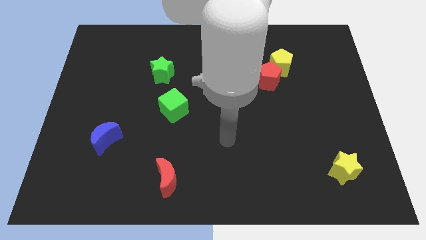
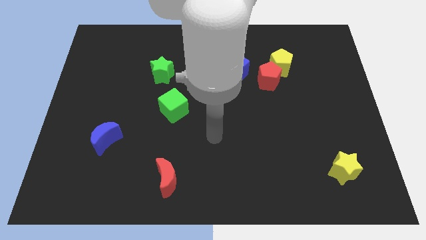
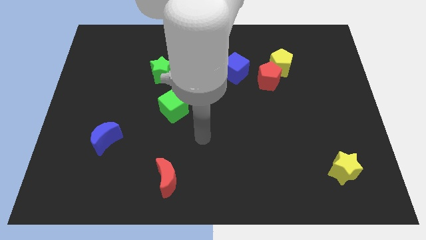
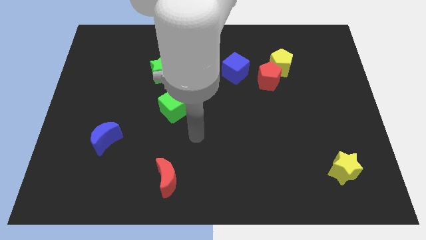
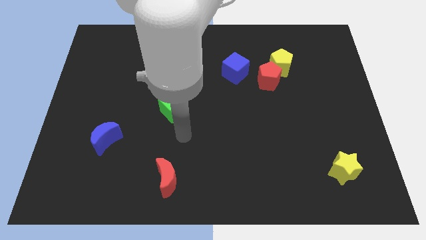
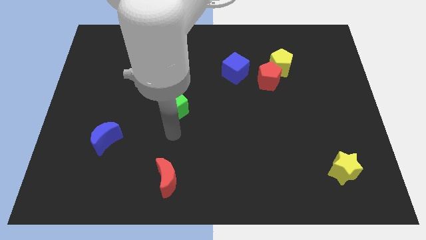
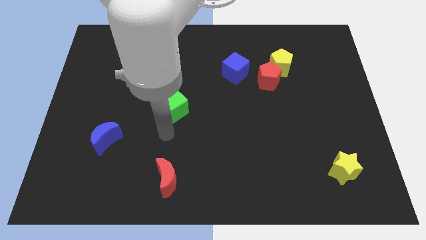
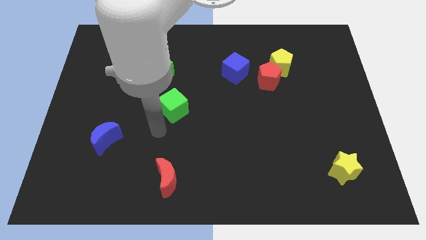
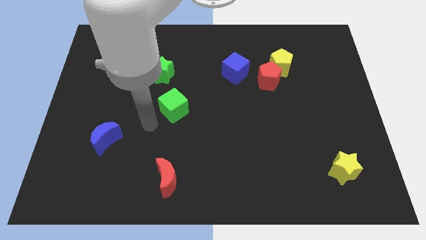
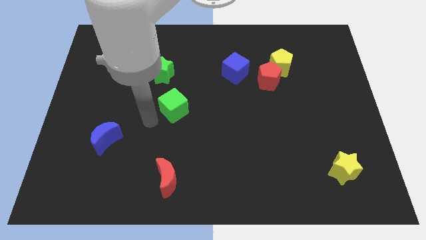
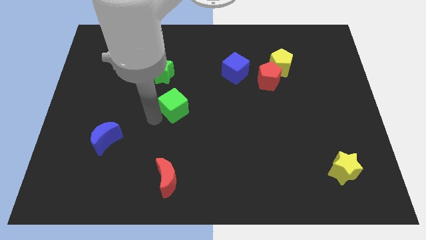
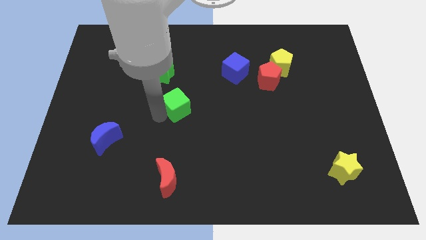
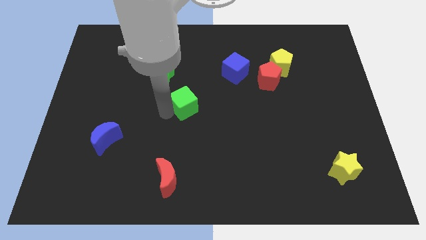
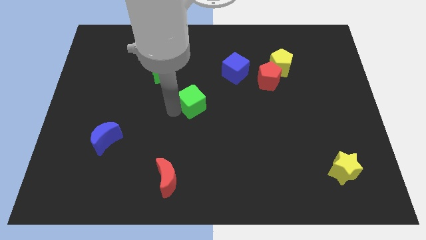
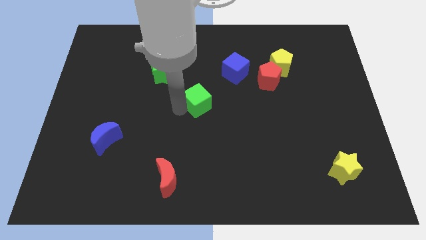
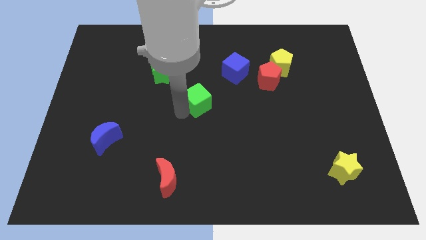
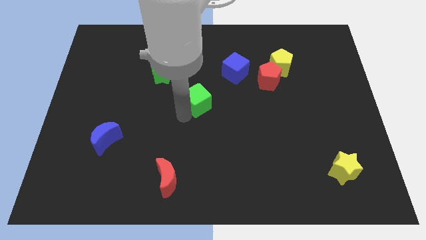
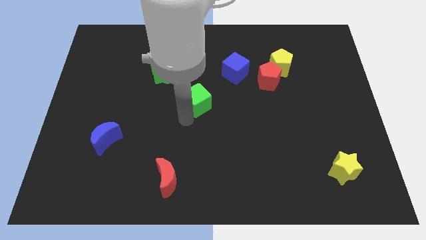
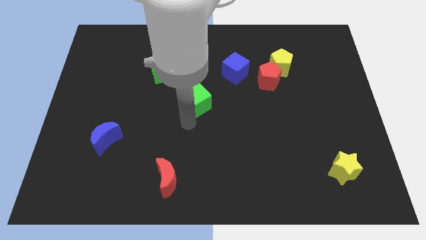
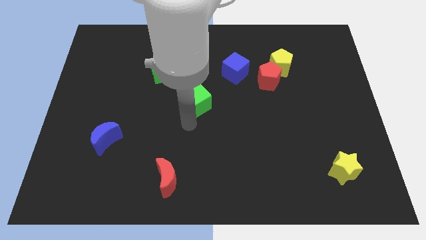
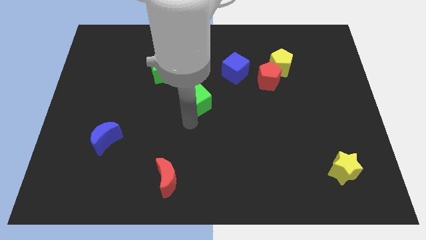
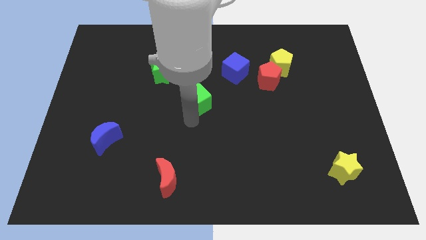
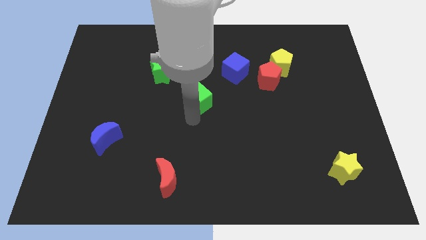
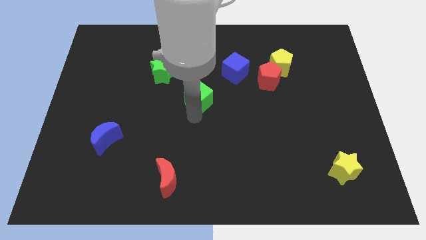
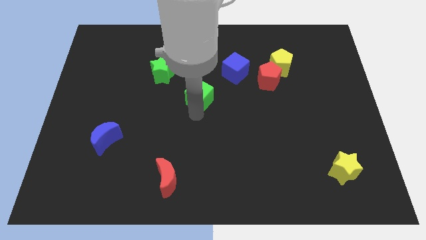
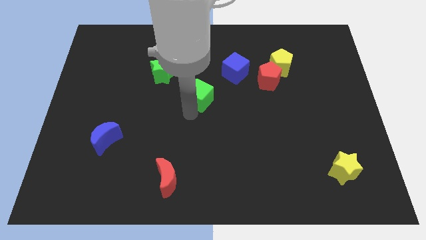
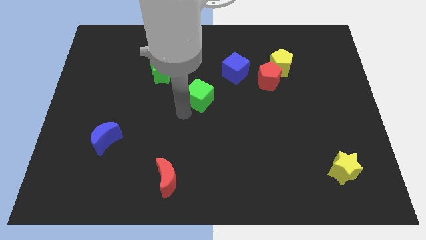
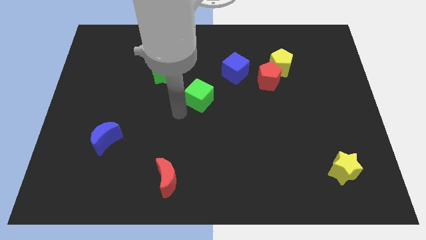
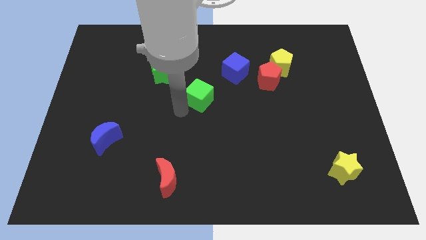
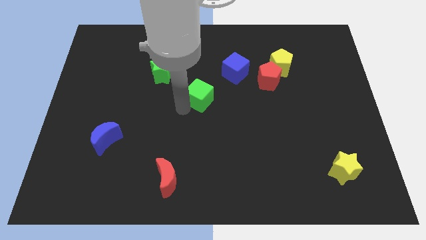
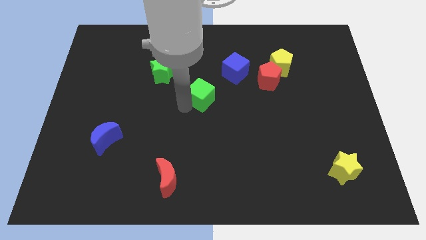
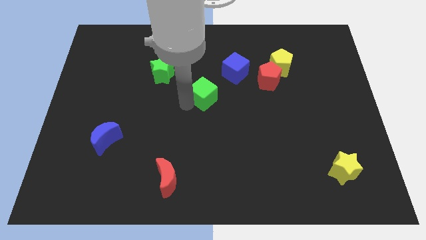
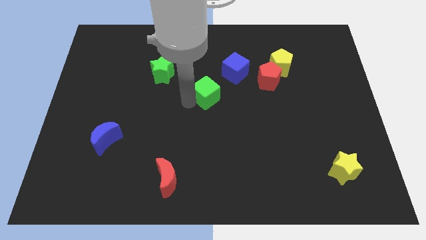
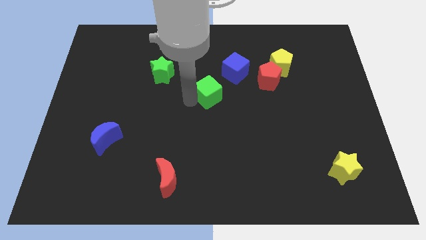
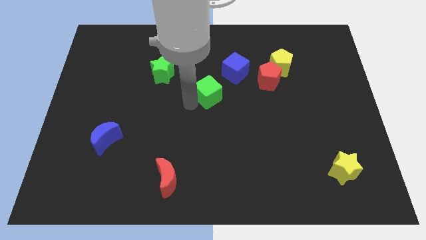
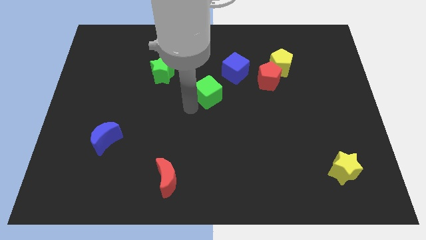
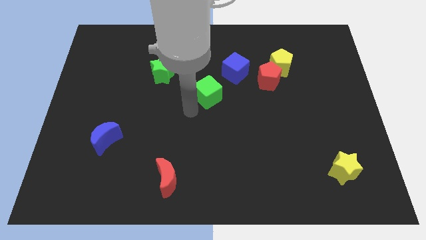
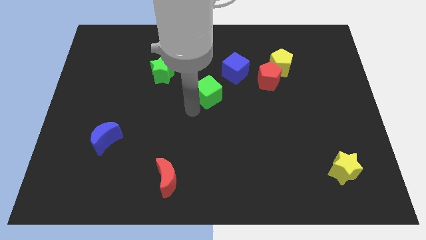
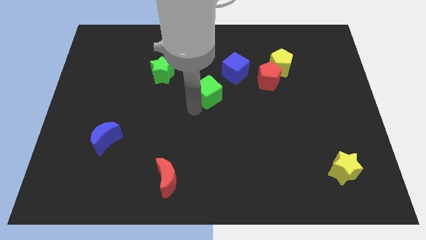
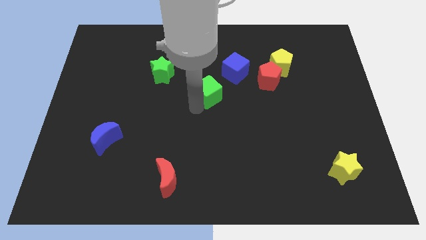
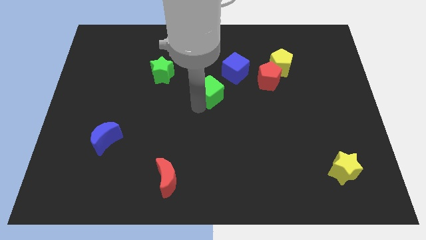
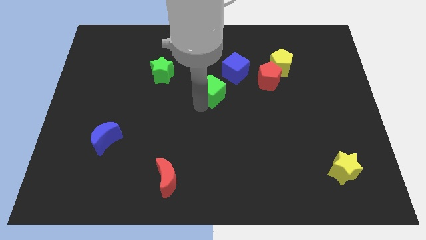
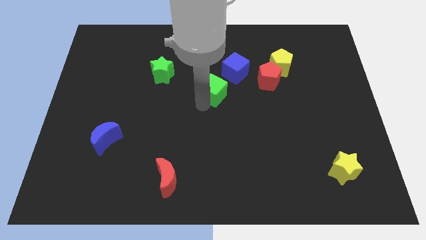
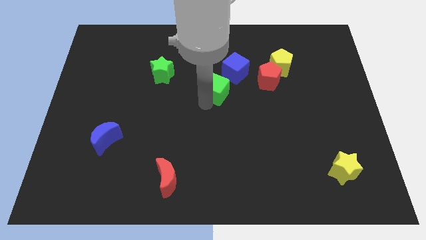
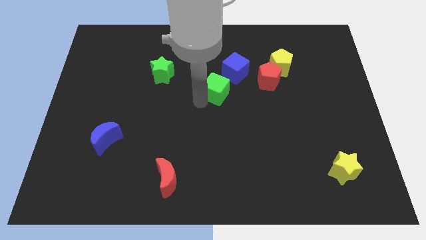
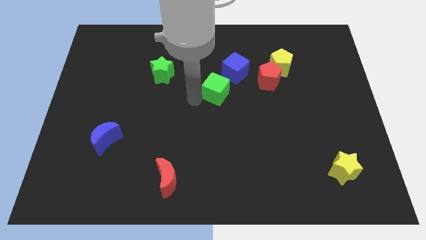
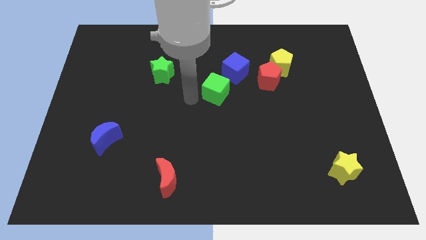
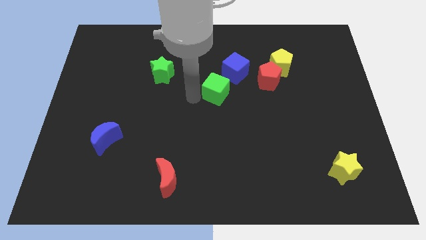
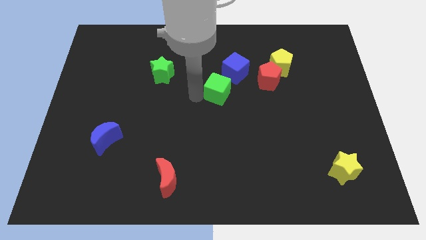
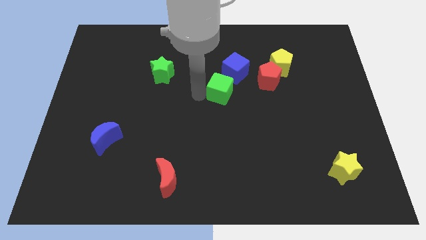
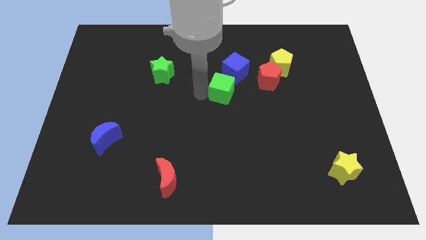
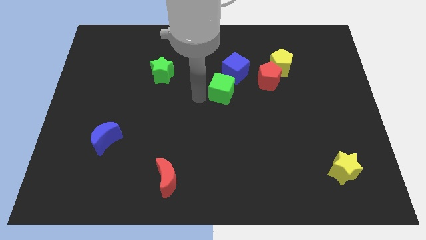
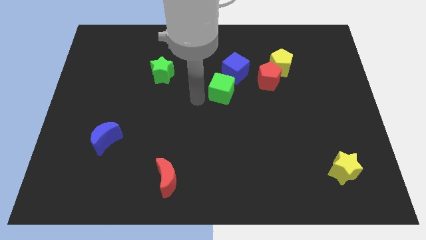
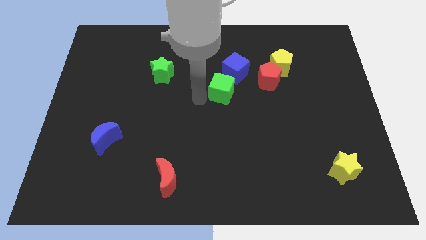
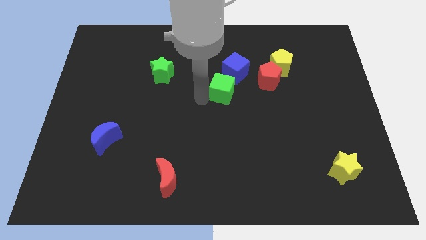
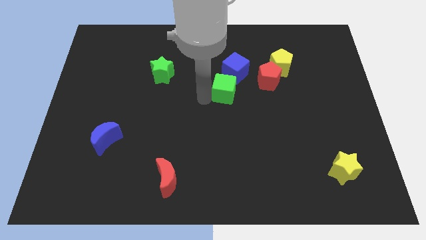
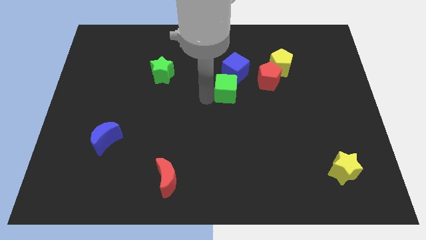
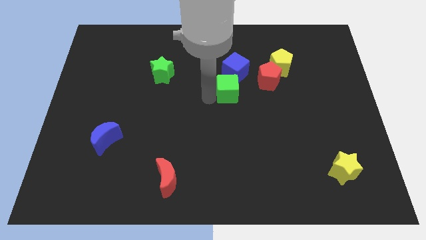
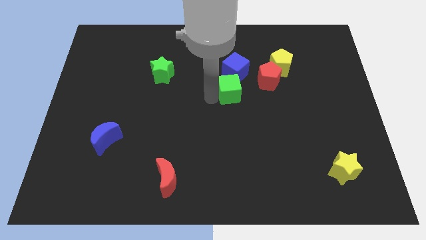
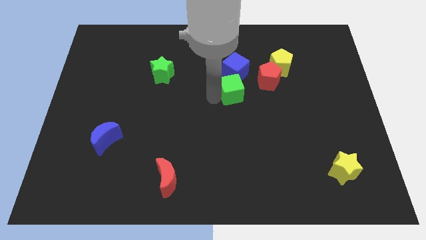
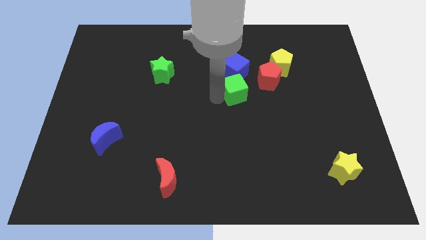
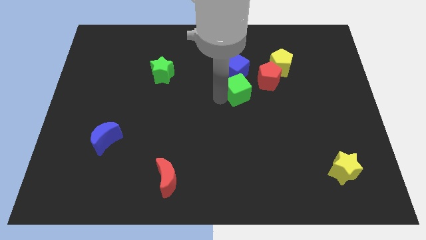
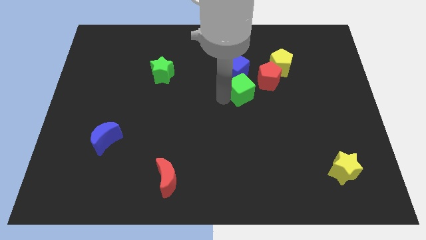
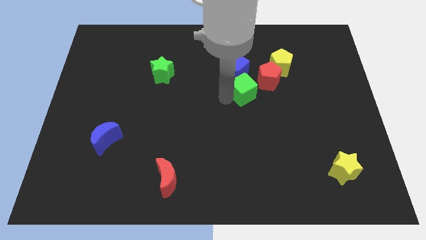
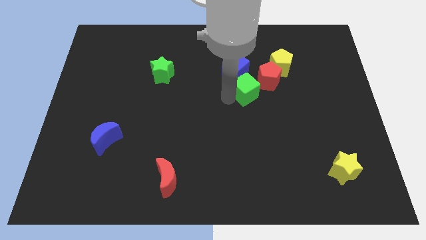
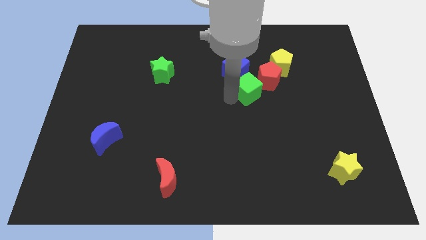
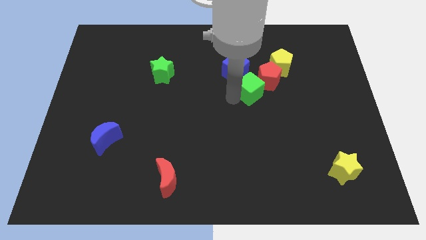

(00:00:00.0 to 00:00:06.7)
put the green cube close to the red pentagon

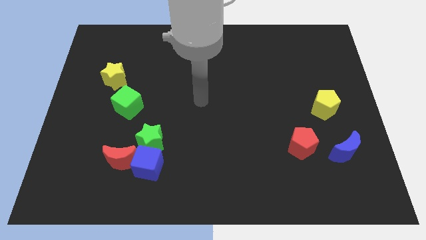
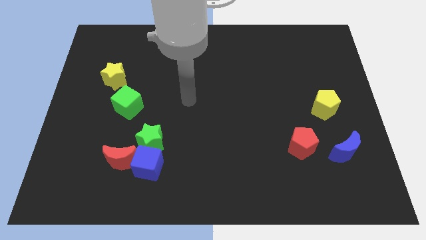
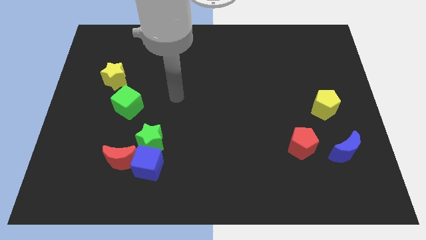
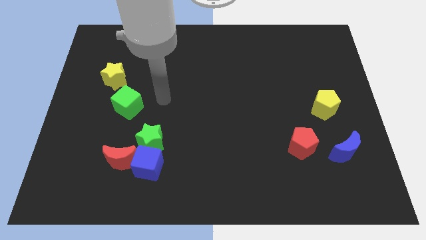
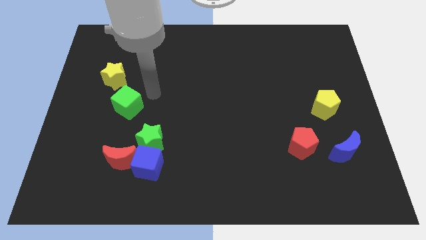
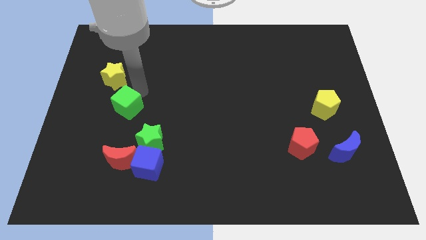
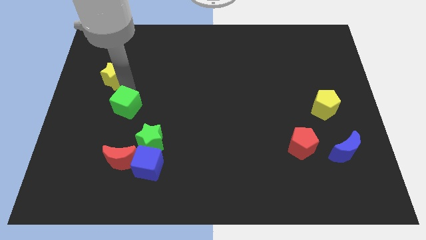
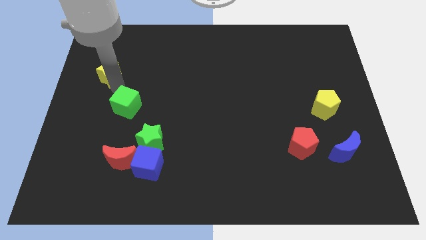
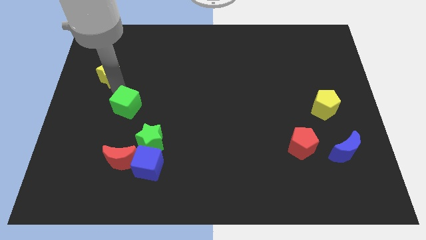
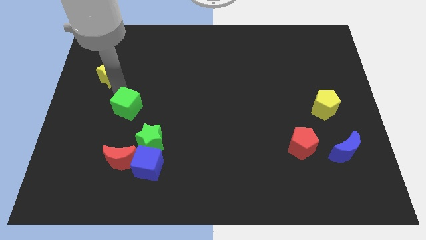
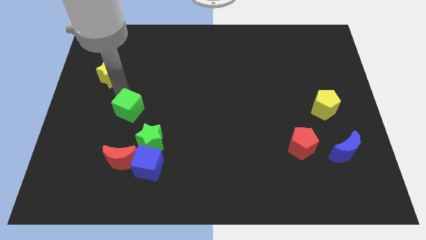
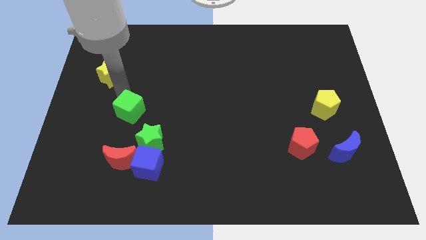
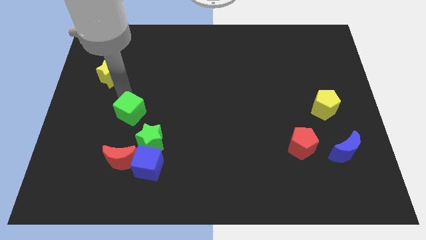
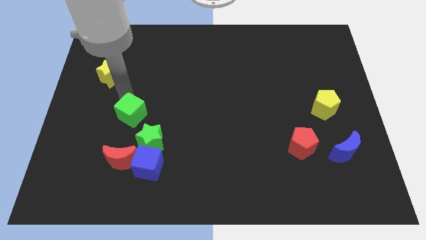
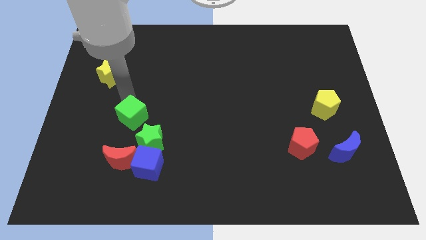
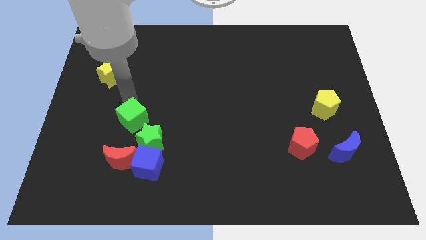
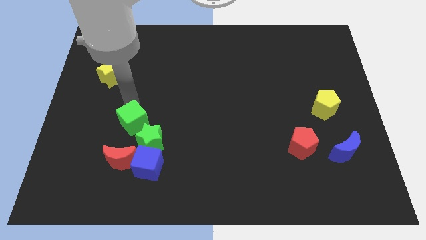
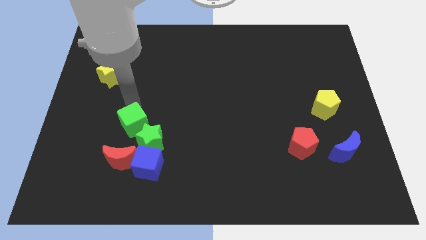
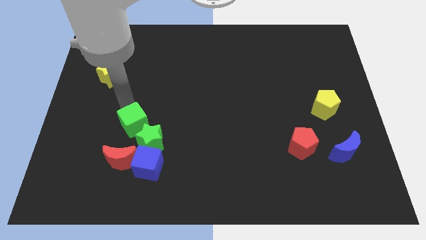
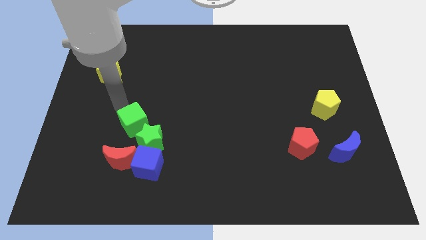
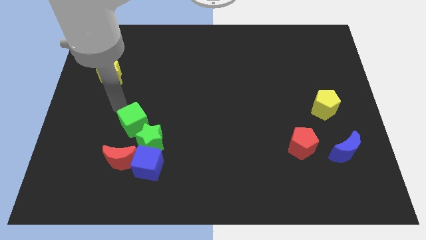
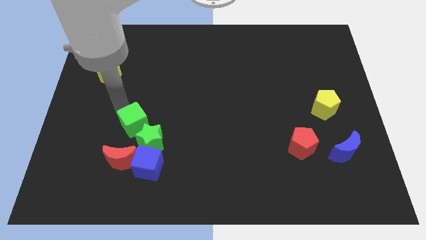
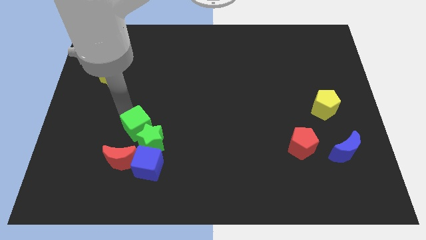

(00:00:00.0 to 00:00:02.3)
move the green cube close to the green star
